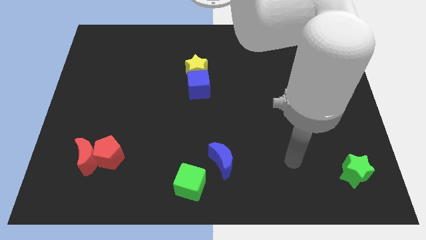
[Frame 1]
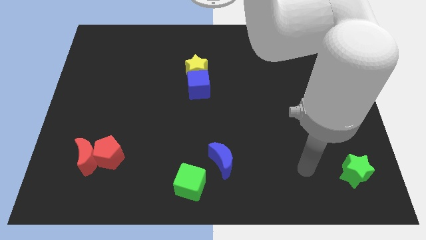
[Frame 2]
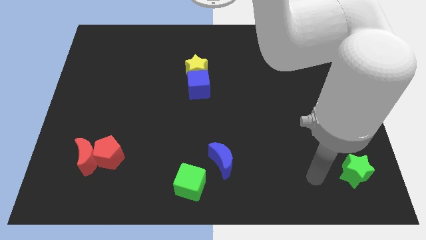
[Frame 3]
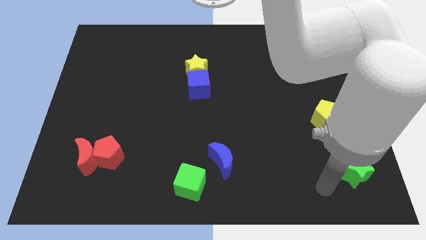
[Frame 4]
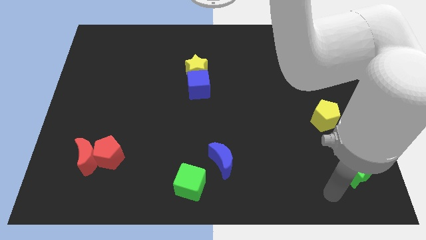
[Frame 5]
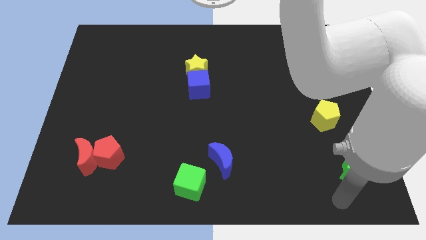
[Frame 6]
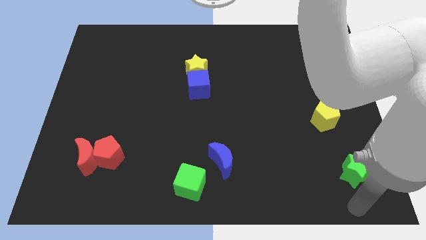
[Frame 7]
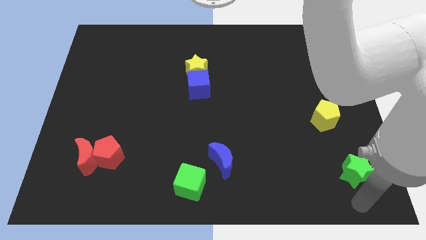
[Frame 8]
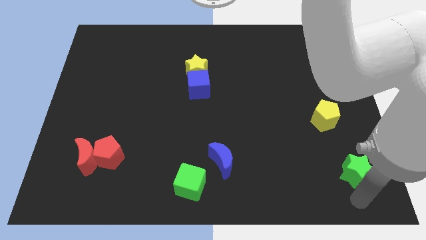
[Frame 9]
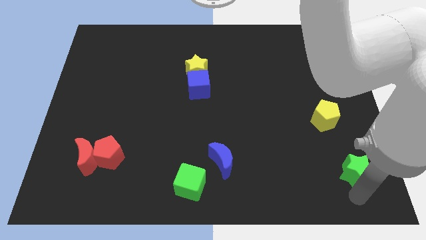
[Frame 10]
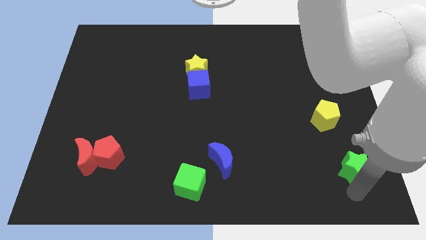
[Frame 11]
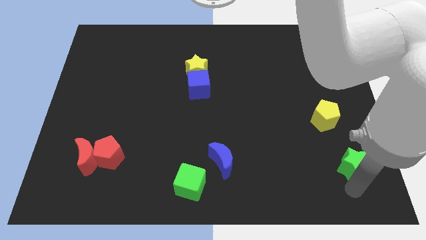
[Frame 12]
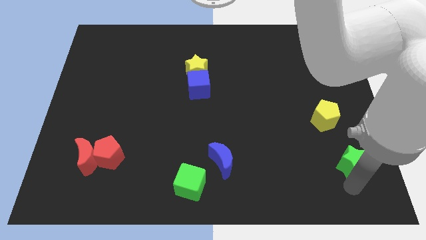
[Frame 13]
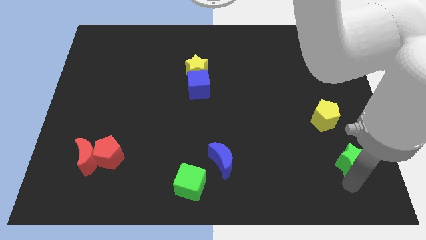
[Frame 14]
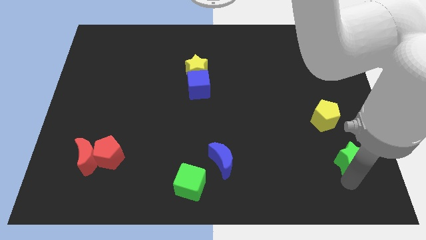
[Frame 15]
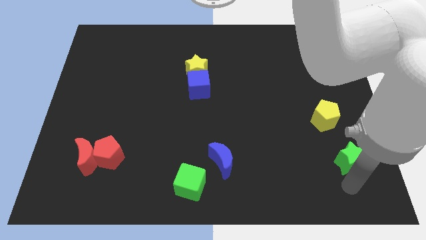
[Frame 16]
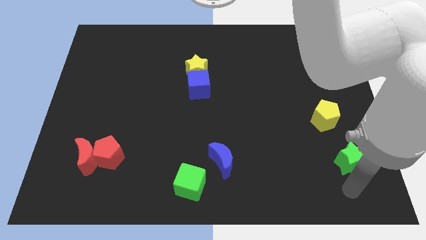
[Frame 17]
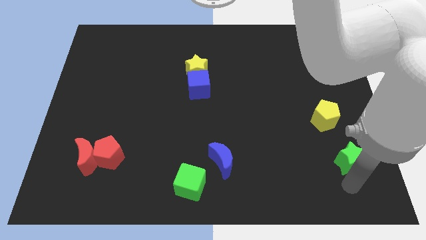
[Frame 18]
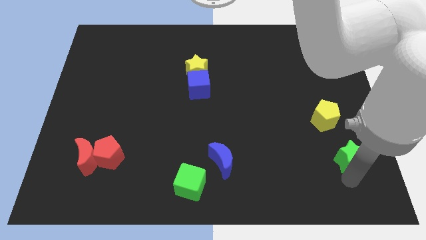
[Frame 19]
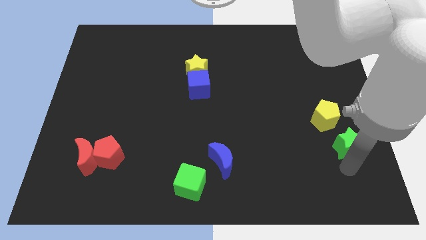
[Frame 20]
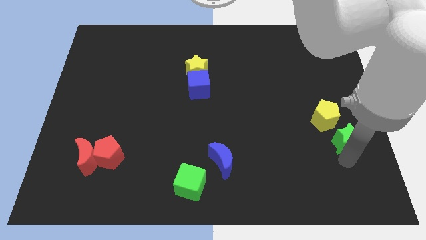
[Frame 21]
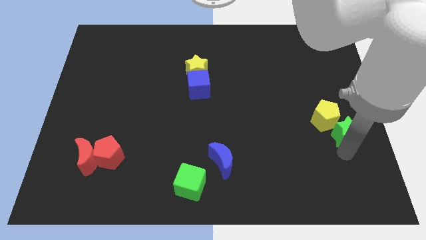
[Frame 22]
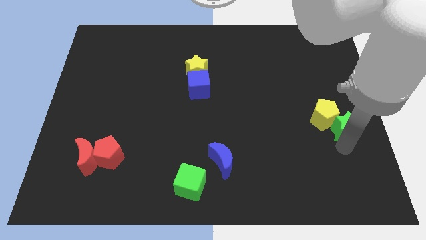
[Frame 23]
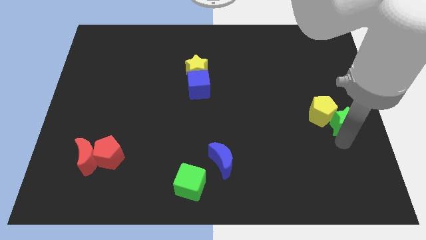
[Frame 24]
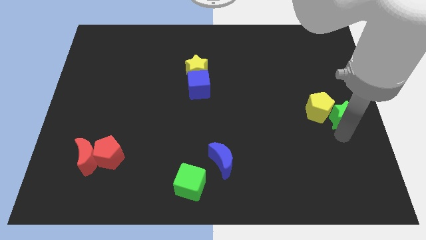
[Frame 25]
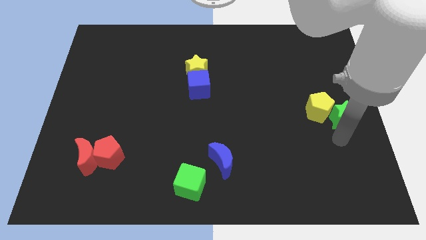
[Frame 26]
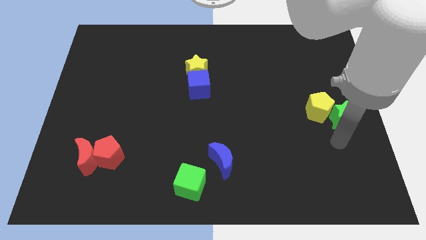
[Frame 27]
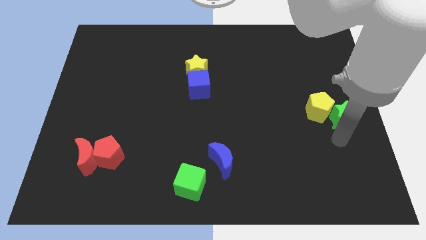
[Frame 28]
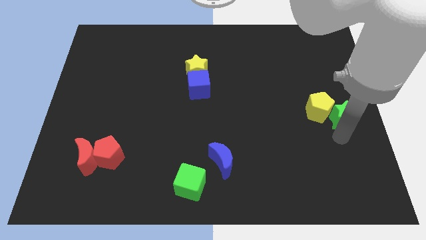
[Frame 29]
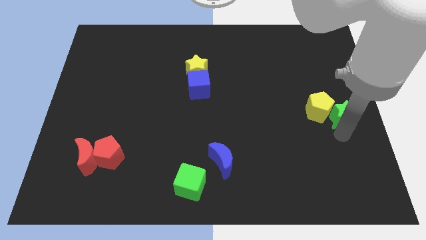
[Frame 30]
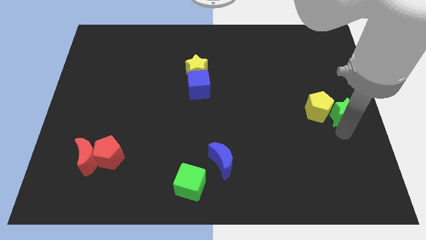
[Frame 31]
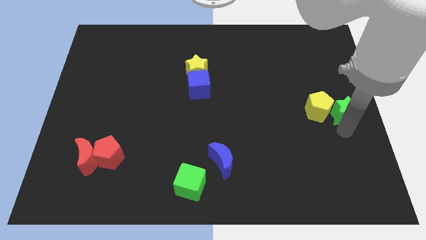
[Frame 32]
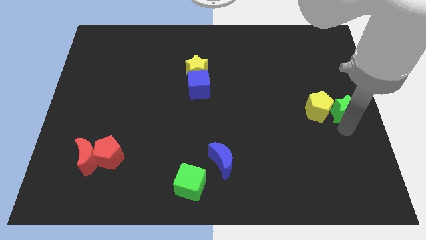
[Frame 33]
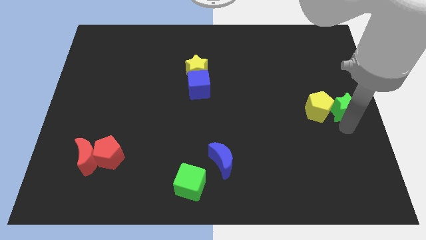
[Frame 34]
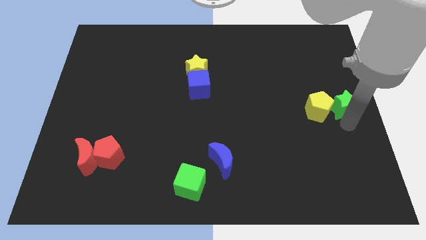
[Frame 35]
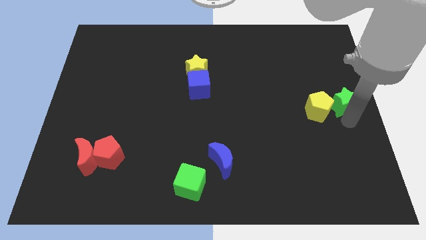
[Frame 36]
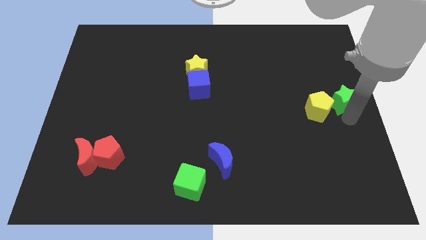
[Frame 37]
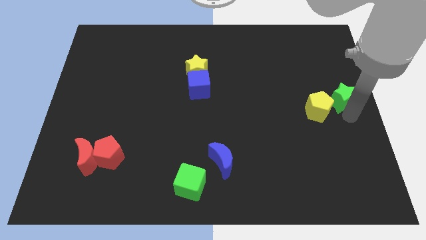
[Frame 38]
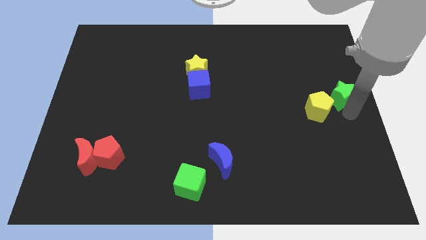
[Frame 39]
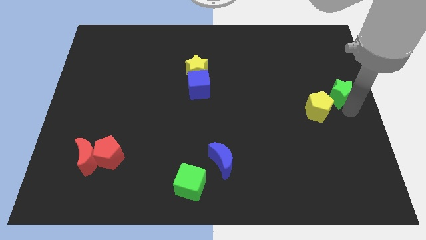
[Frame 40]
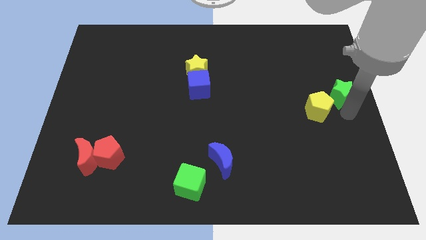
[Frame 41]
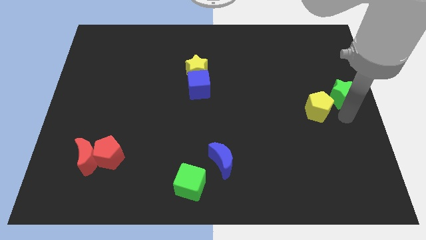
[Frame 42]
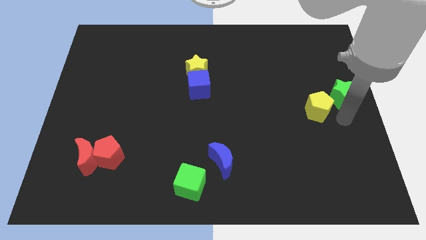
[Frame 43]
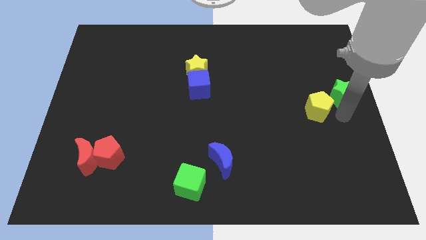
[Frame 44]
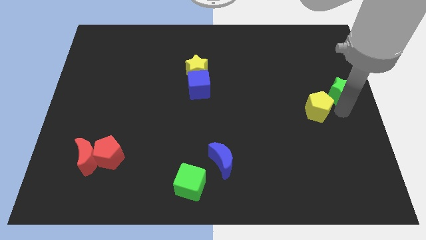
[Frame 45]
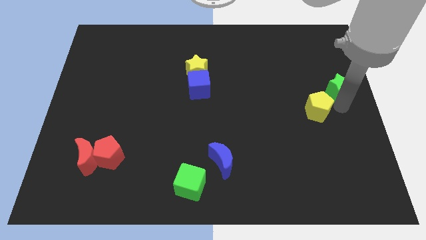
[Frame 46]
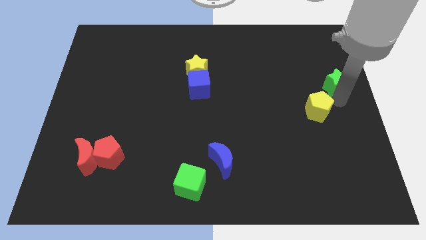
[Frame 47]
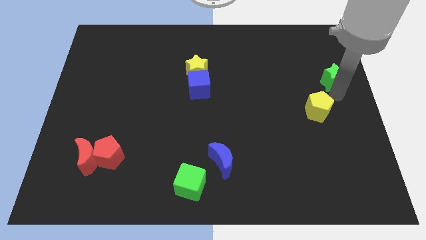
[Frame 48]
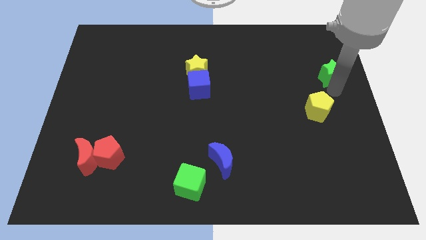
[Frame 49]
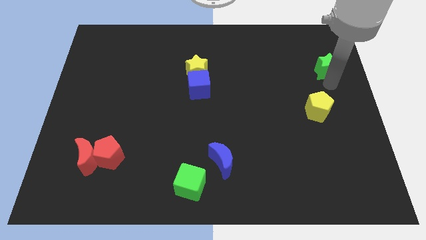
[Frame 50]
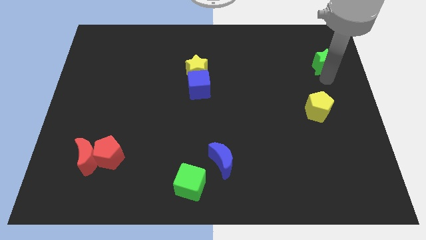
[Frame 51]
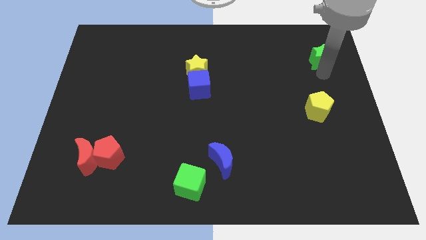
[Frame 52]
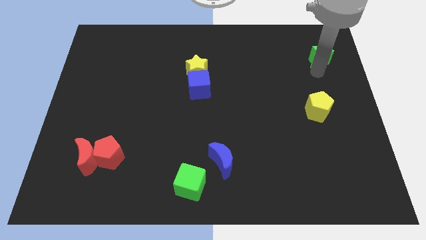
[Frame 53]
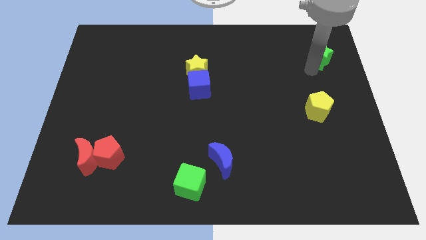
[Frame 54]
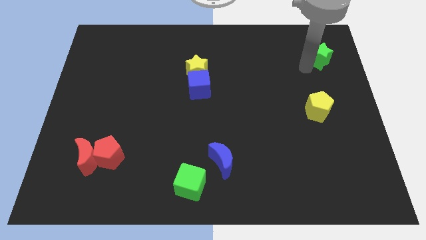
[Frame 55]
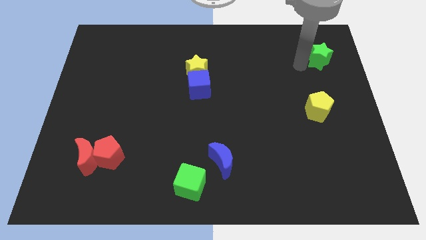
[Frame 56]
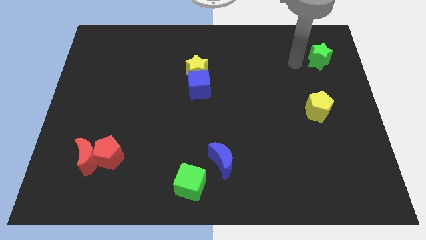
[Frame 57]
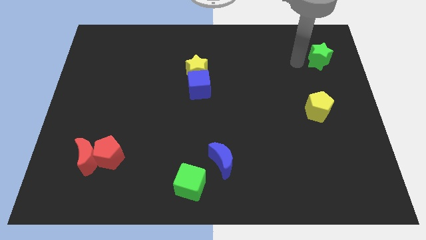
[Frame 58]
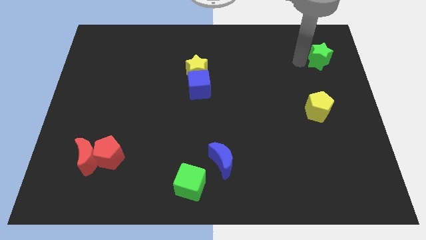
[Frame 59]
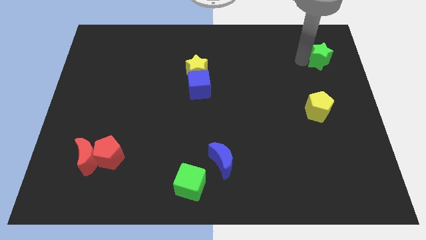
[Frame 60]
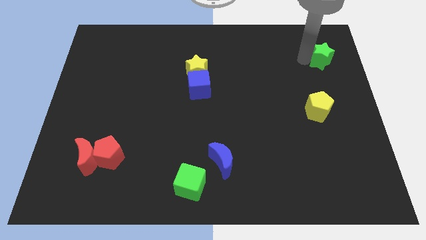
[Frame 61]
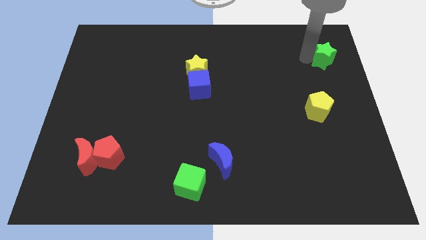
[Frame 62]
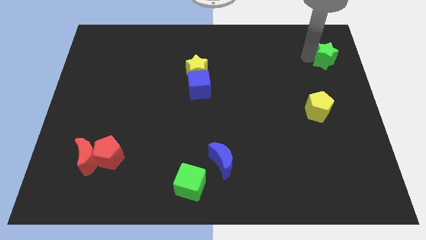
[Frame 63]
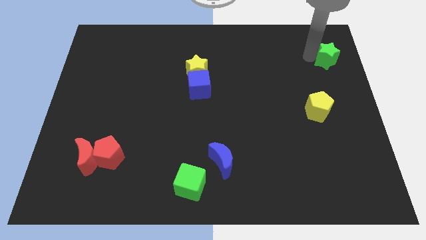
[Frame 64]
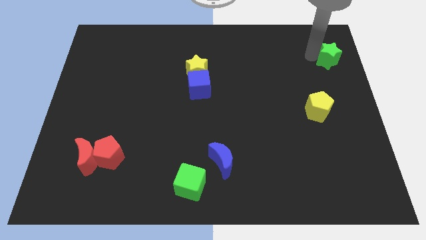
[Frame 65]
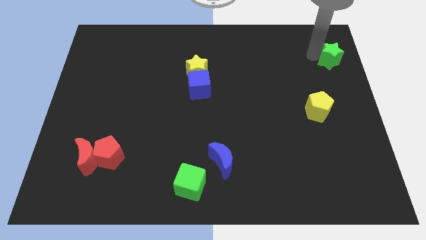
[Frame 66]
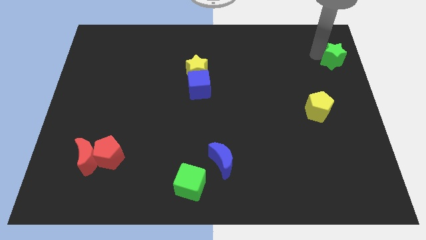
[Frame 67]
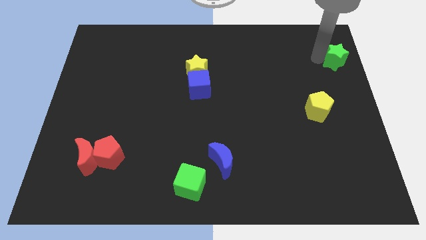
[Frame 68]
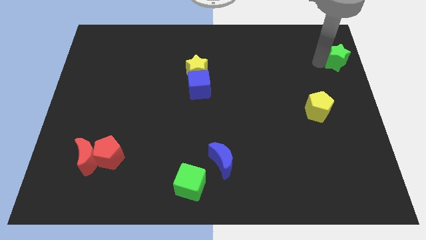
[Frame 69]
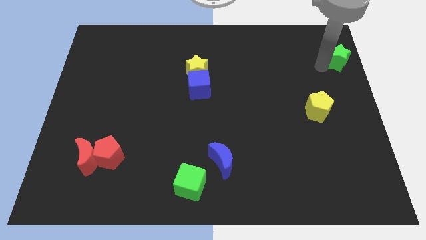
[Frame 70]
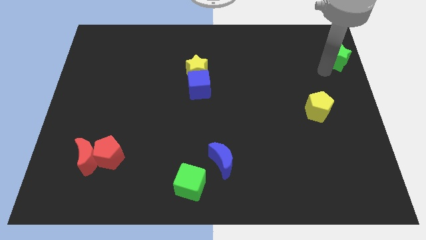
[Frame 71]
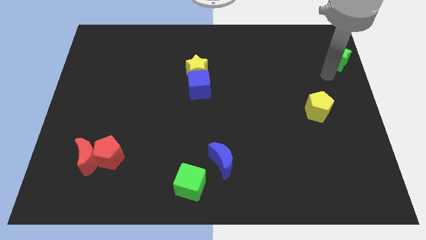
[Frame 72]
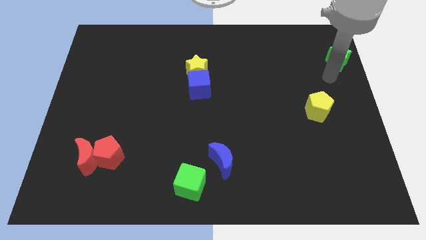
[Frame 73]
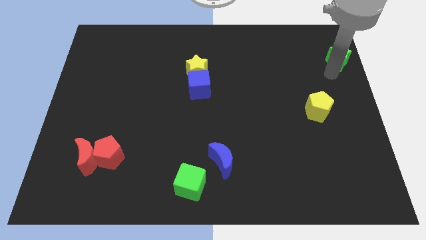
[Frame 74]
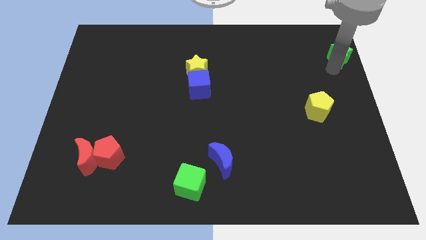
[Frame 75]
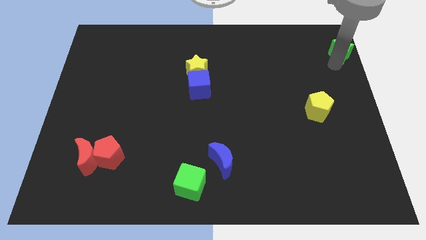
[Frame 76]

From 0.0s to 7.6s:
put the green star to the top right

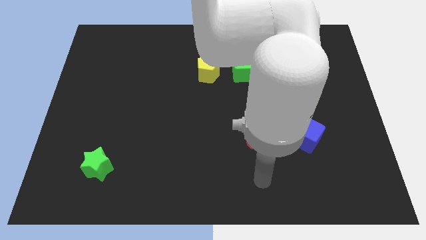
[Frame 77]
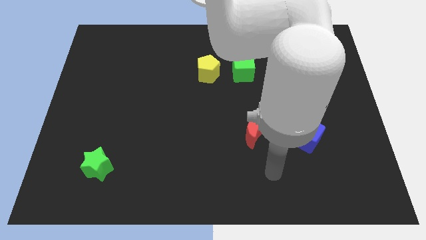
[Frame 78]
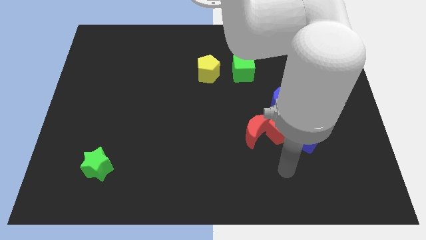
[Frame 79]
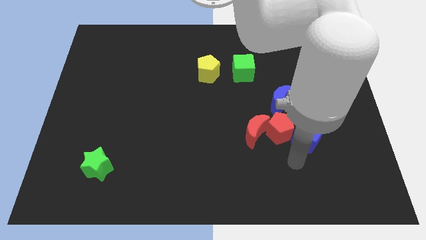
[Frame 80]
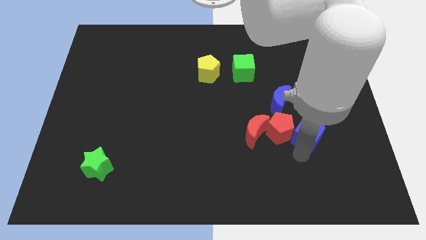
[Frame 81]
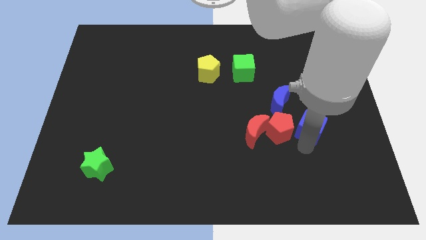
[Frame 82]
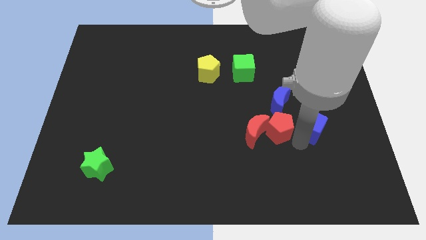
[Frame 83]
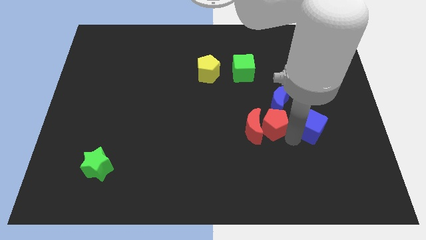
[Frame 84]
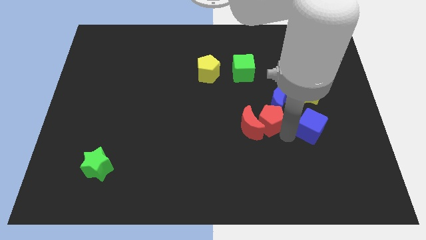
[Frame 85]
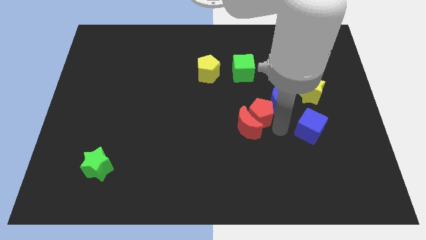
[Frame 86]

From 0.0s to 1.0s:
move the red pentagon to the center of the board
